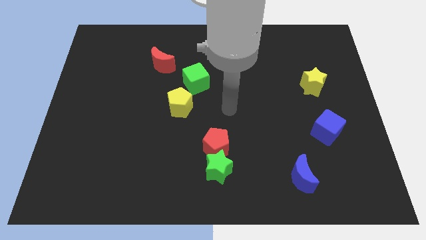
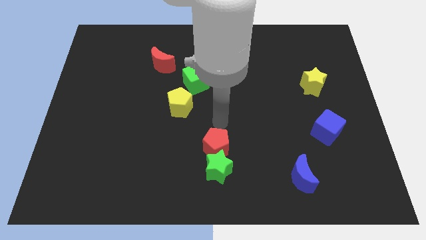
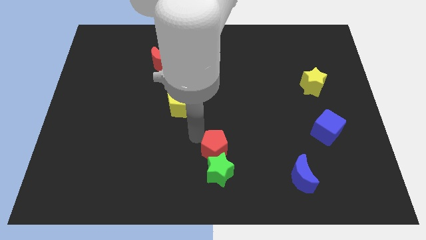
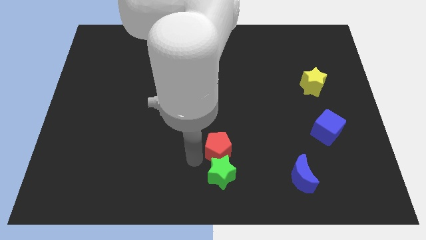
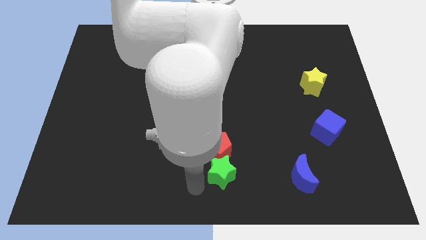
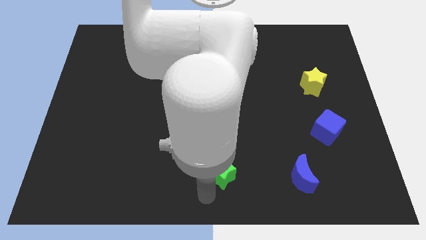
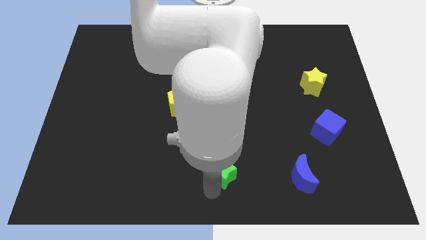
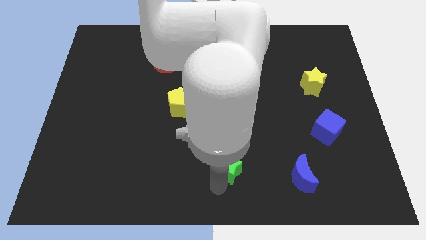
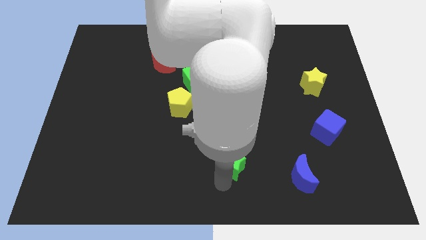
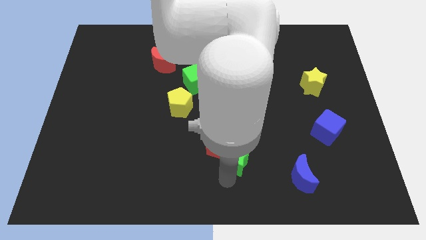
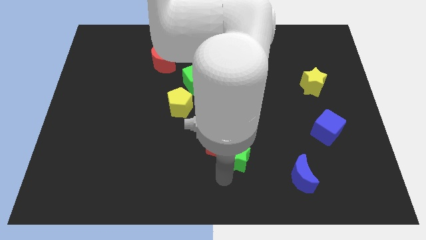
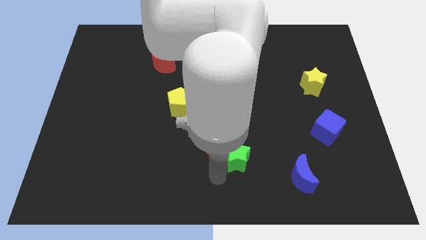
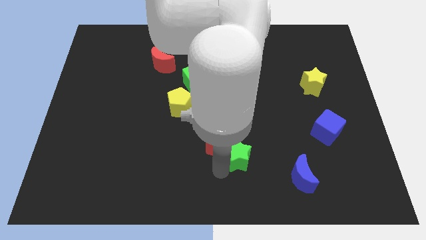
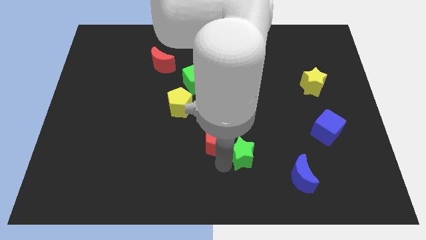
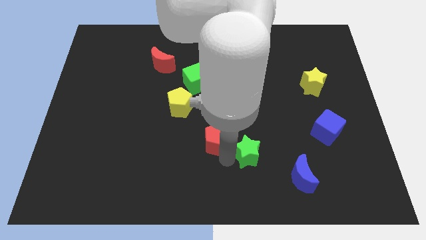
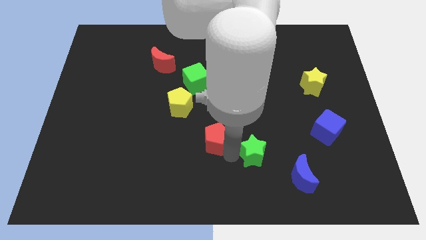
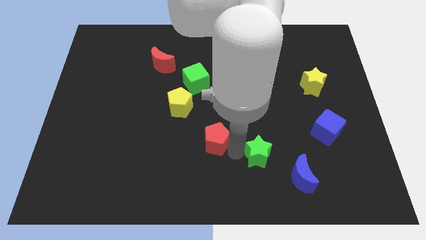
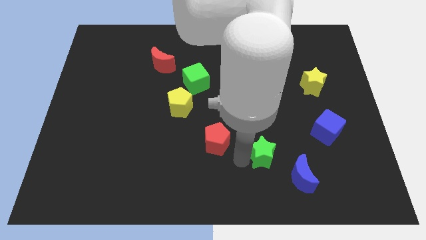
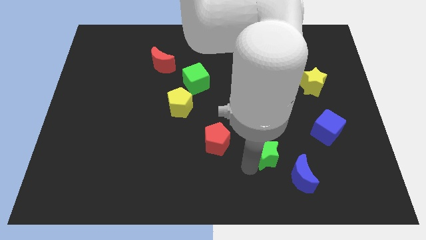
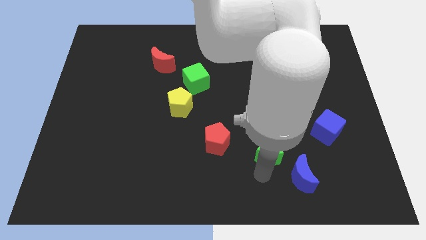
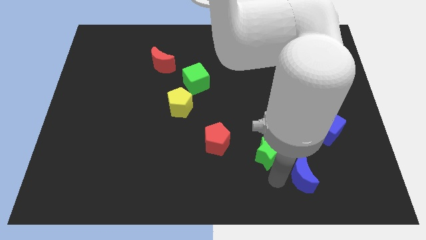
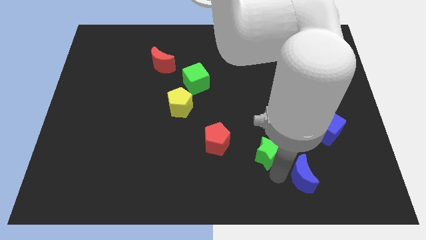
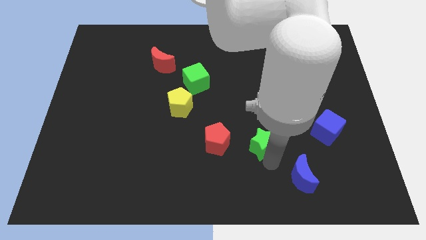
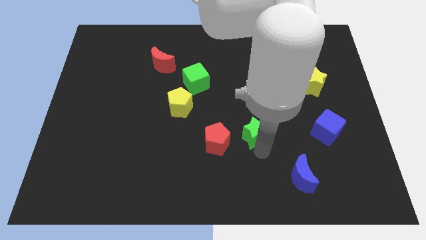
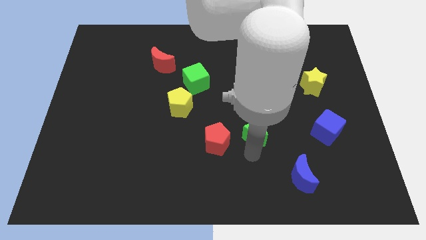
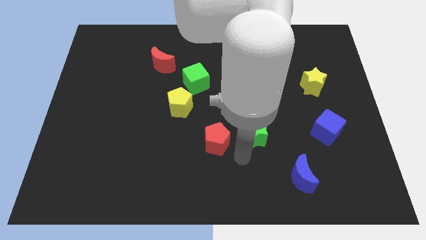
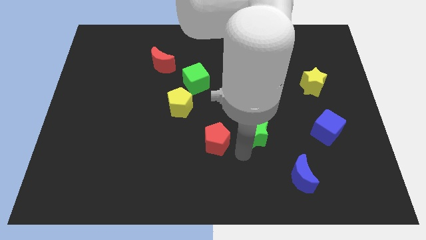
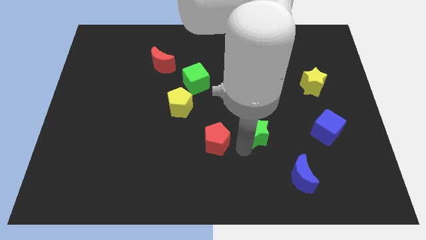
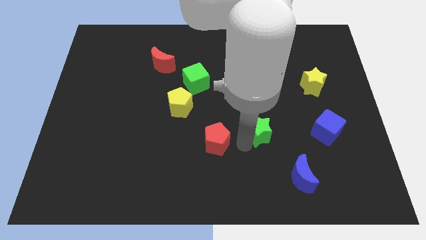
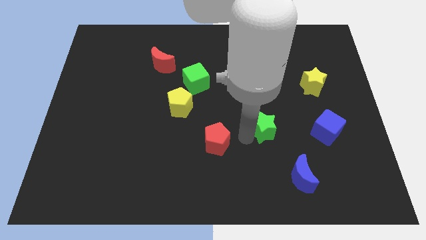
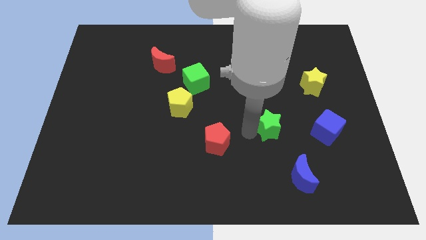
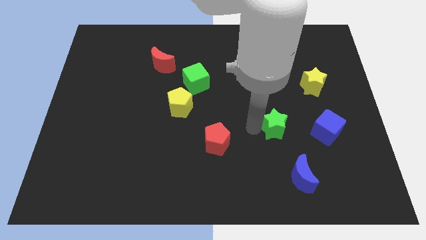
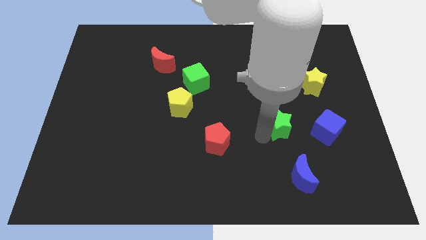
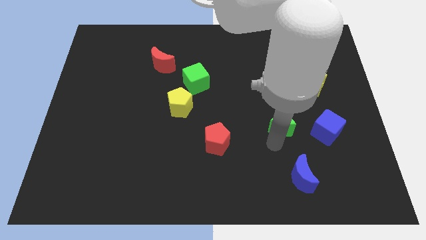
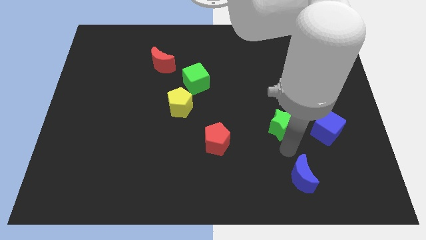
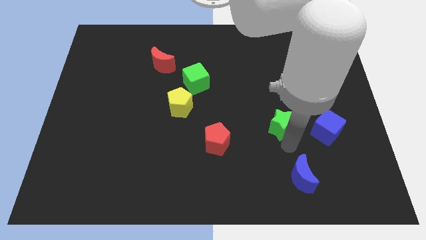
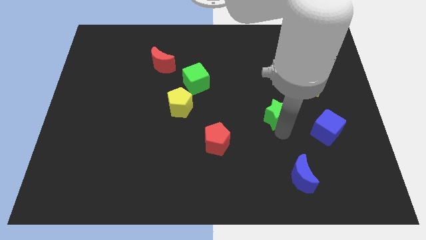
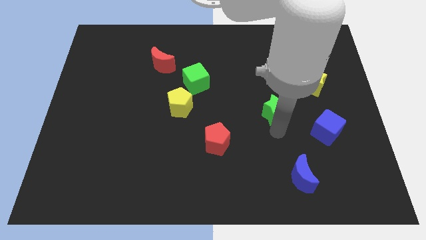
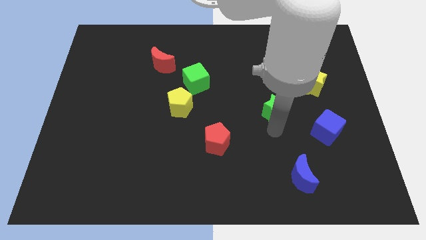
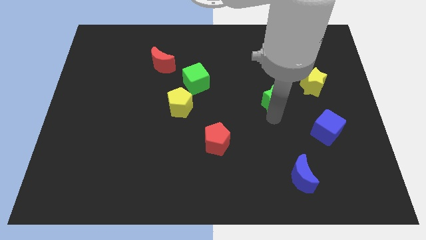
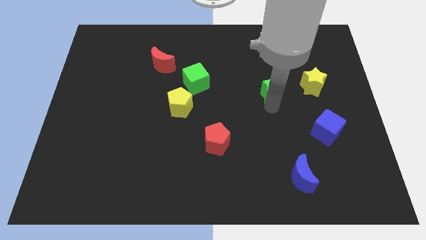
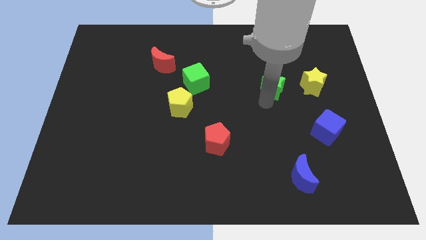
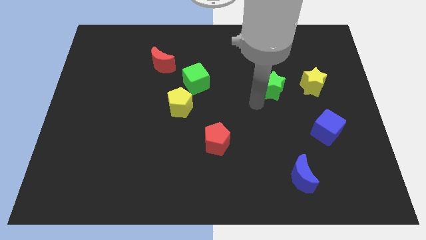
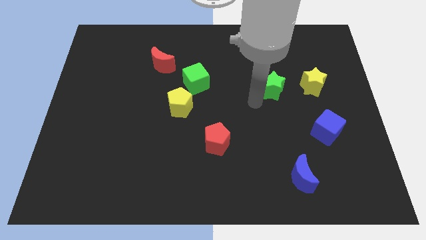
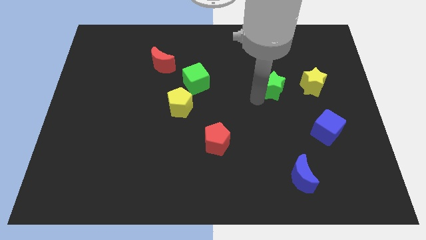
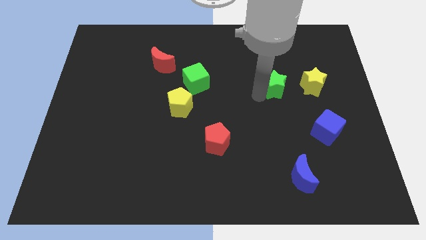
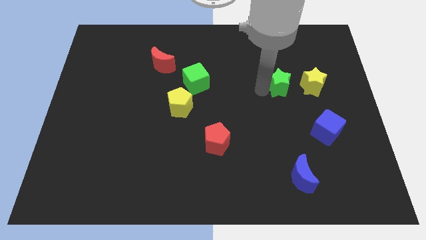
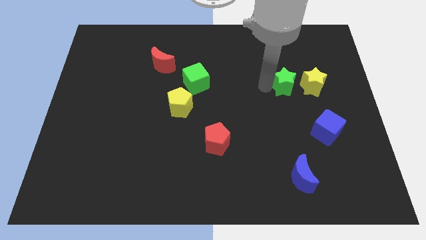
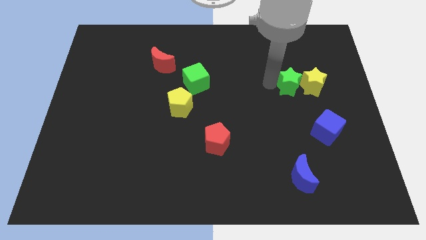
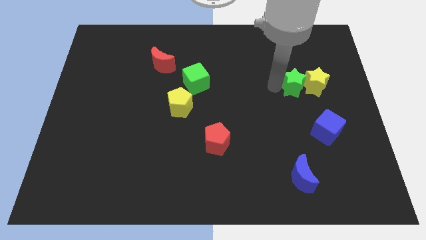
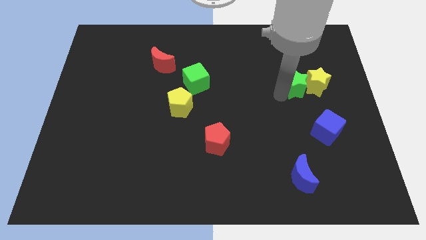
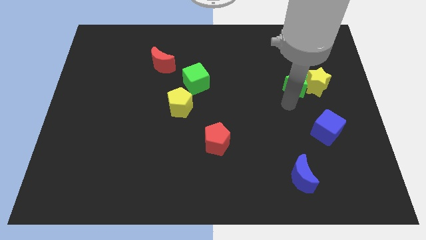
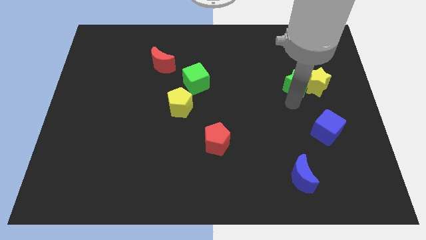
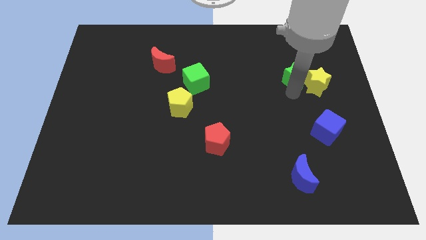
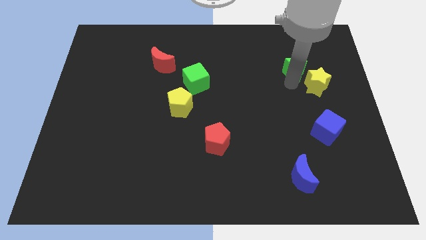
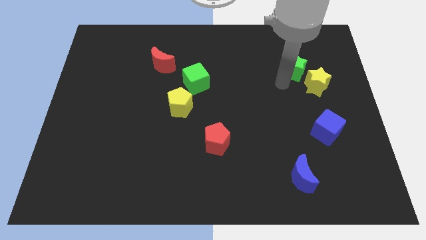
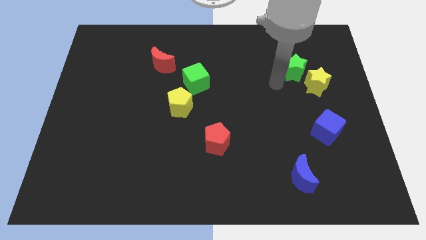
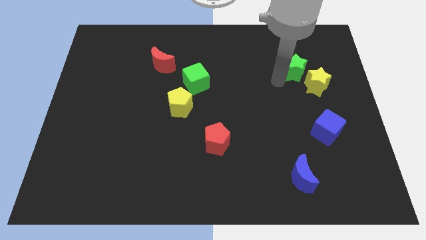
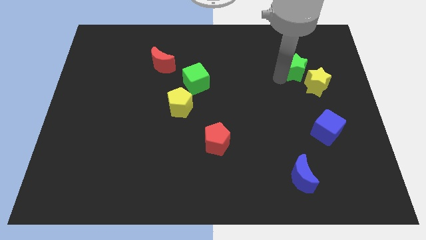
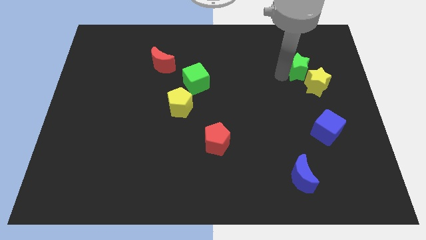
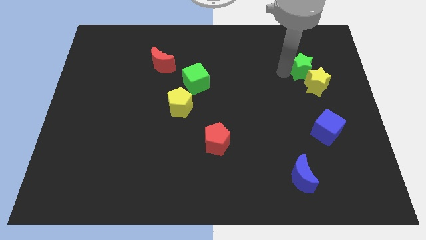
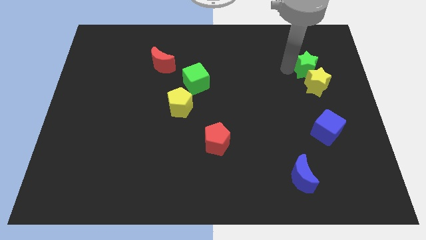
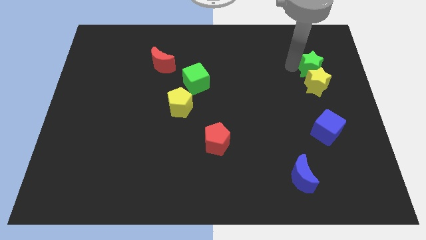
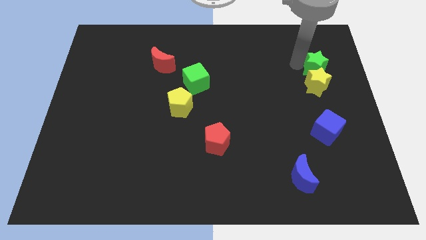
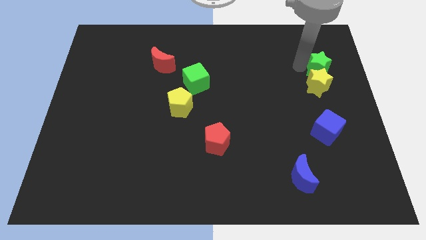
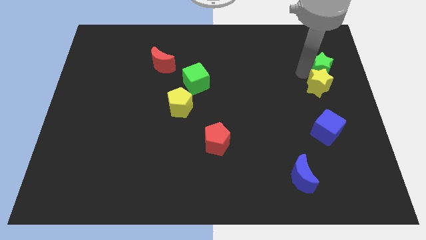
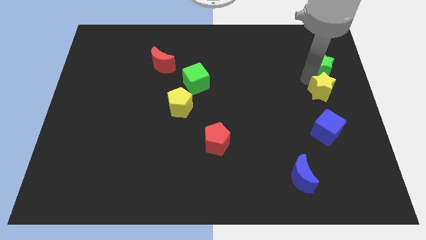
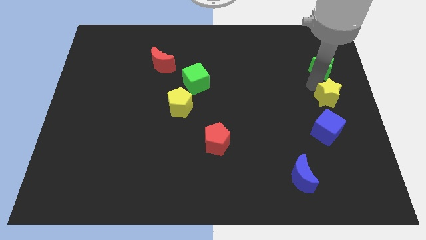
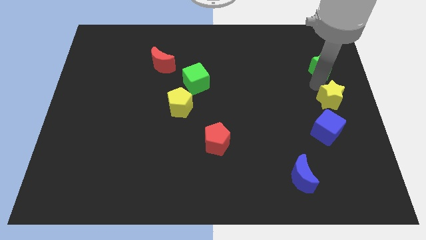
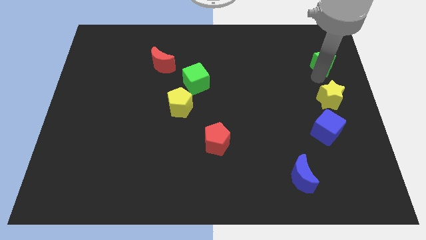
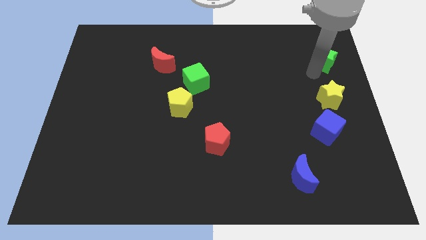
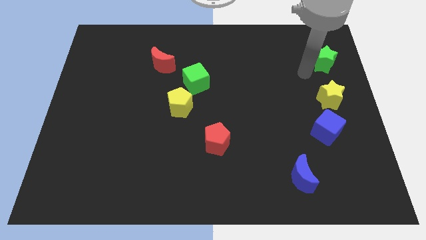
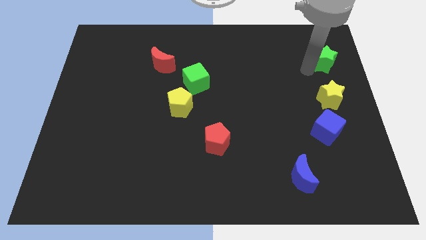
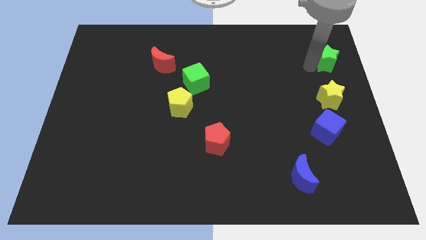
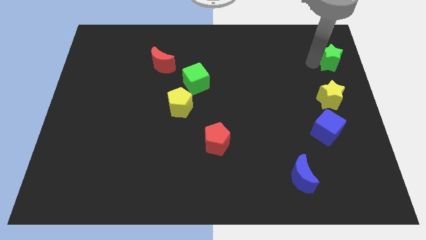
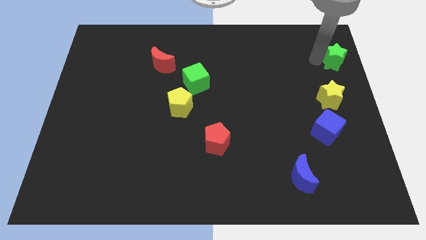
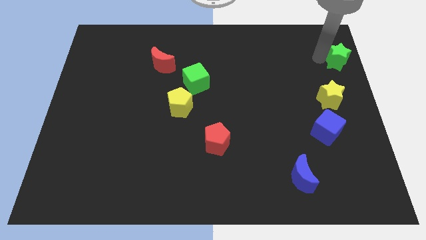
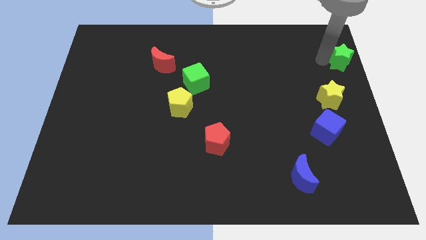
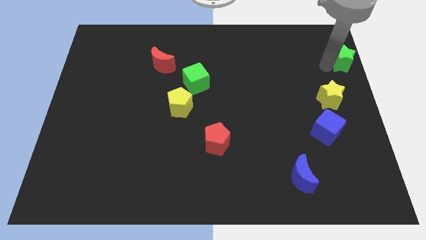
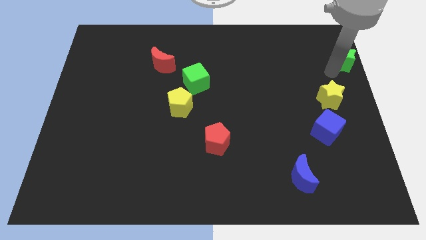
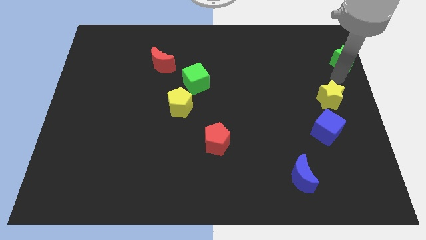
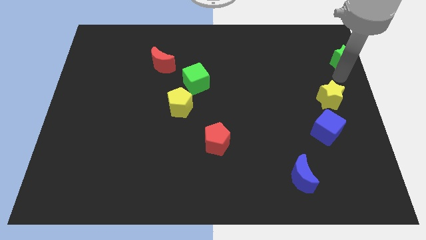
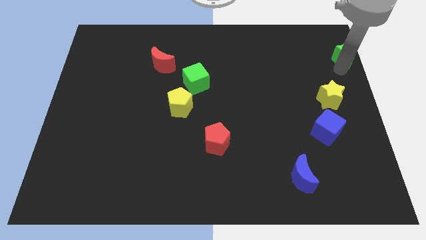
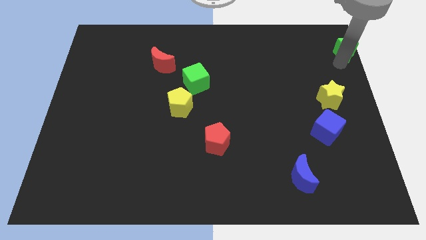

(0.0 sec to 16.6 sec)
move the green star to the top right corner
